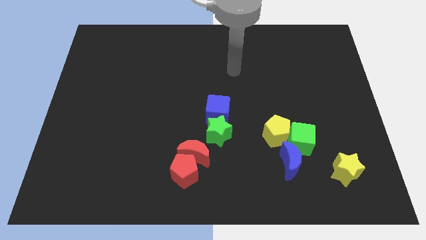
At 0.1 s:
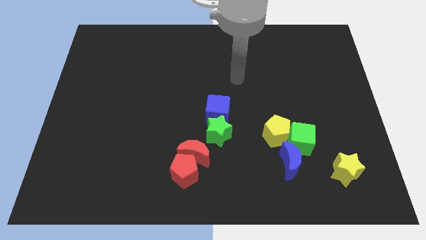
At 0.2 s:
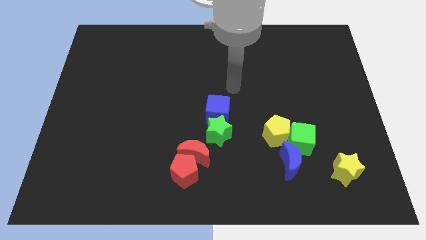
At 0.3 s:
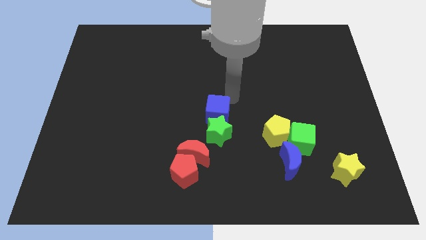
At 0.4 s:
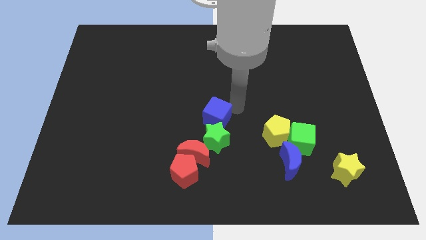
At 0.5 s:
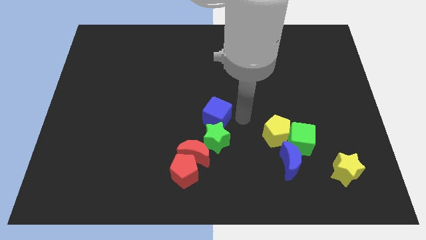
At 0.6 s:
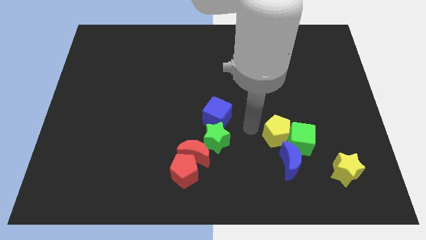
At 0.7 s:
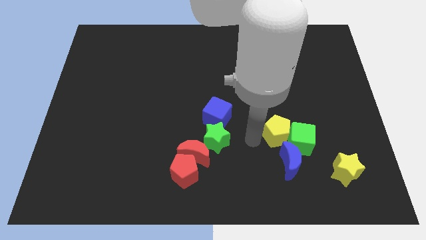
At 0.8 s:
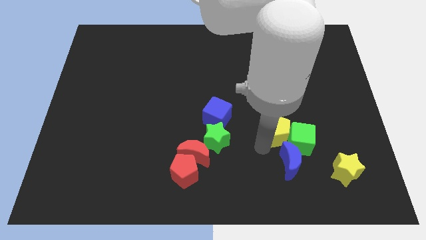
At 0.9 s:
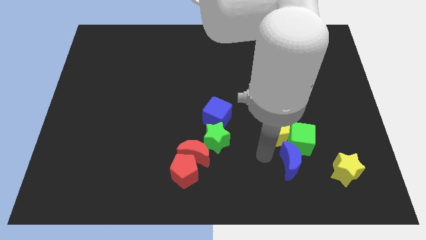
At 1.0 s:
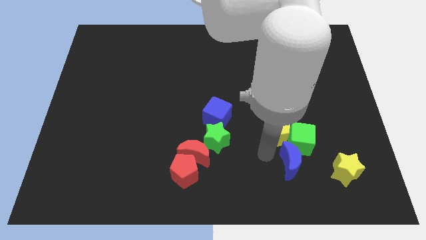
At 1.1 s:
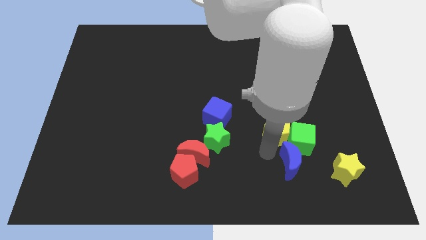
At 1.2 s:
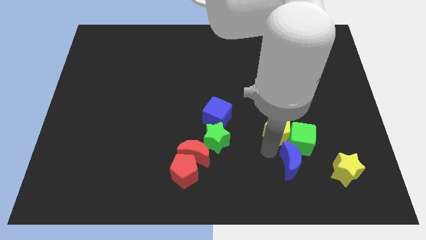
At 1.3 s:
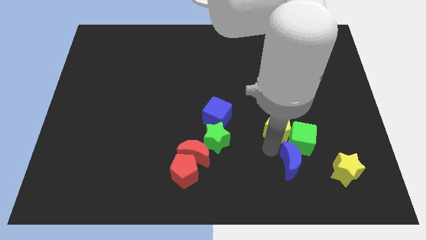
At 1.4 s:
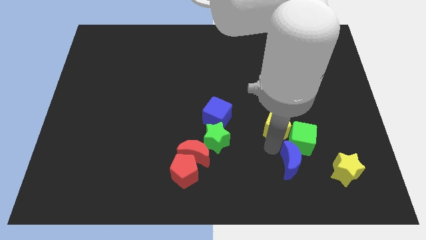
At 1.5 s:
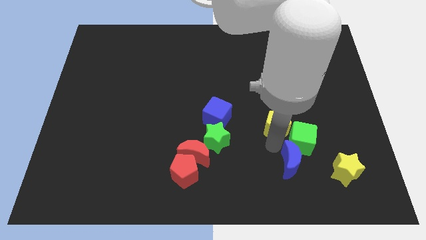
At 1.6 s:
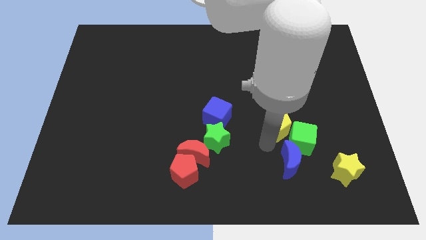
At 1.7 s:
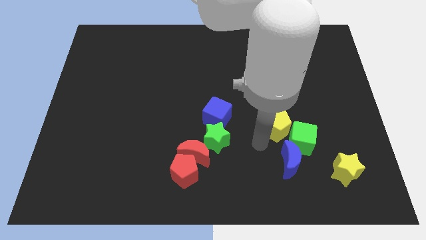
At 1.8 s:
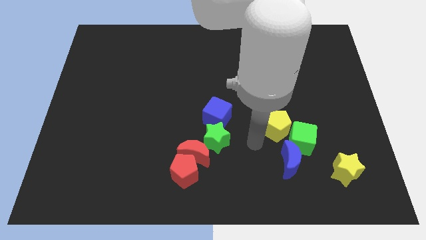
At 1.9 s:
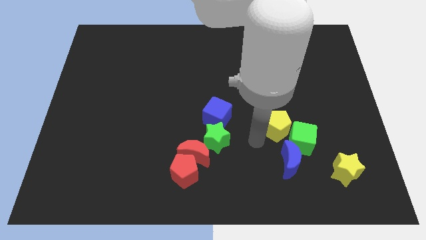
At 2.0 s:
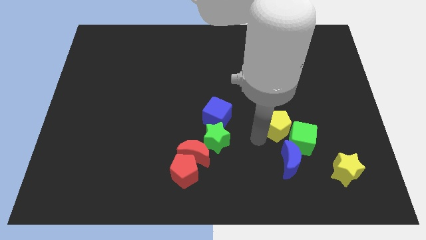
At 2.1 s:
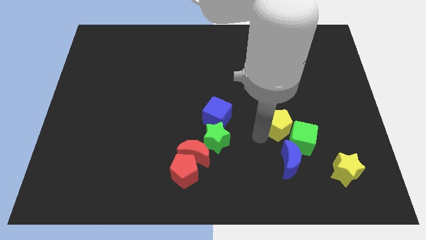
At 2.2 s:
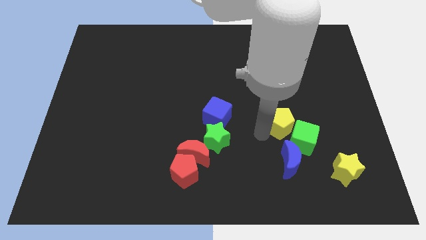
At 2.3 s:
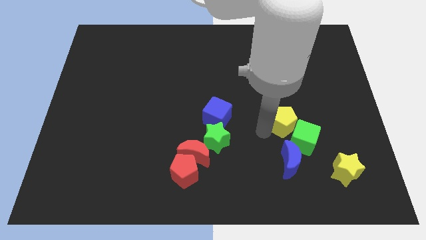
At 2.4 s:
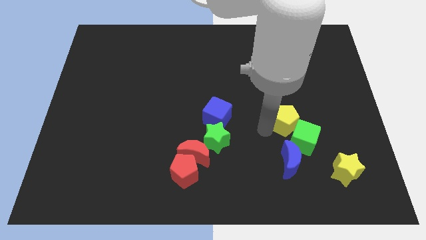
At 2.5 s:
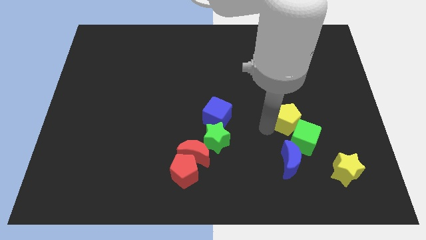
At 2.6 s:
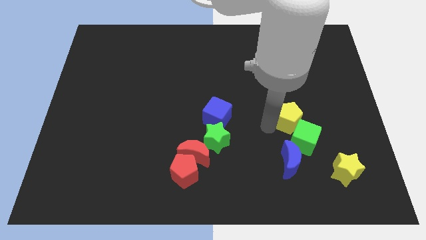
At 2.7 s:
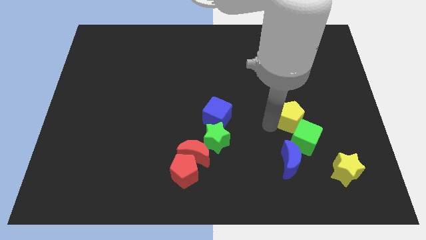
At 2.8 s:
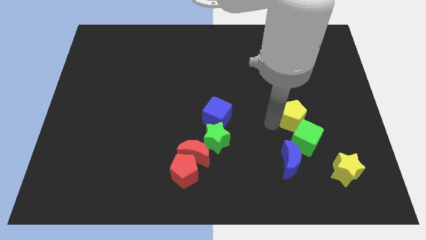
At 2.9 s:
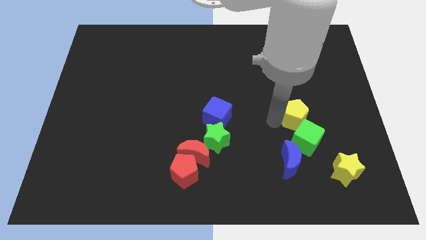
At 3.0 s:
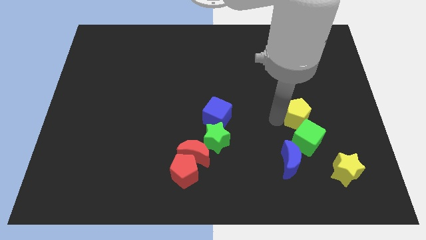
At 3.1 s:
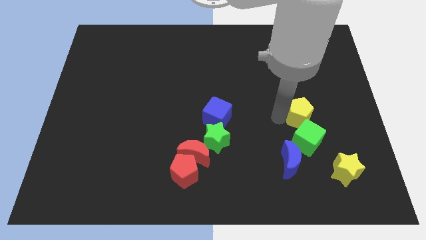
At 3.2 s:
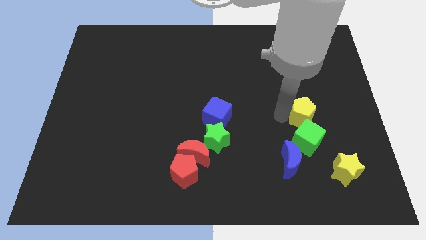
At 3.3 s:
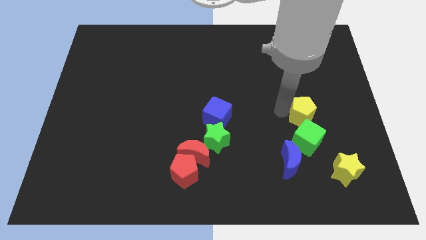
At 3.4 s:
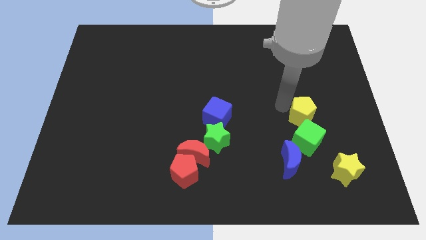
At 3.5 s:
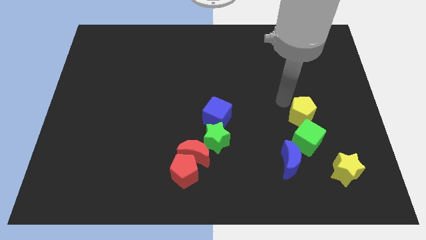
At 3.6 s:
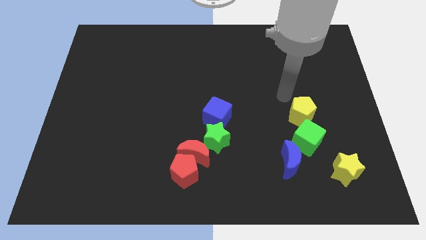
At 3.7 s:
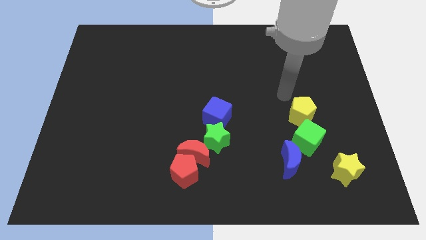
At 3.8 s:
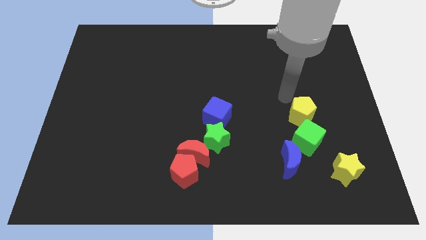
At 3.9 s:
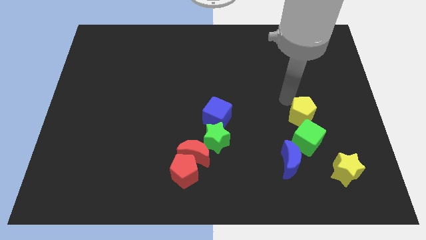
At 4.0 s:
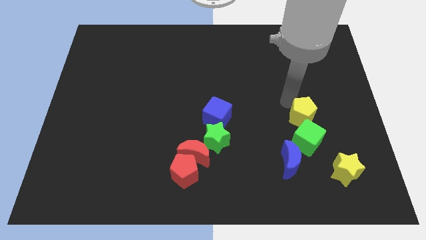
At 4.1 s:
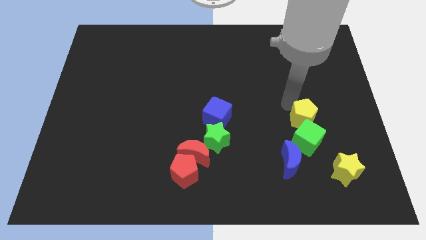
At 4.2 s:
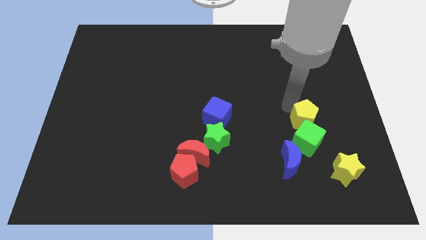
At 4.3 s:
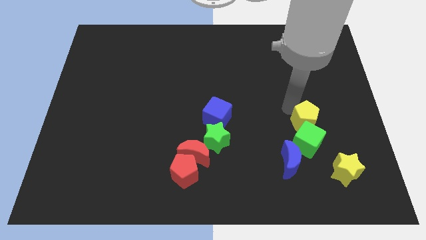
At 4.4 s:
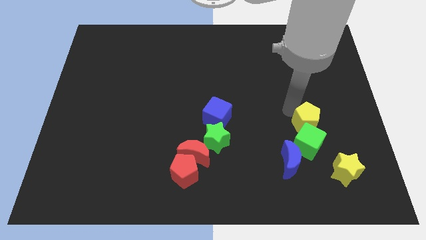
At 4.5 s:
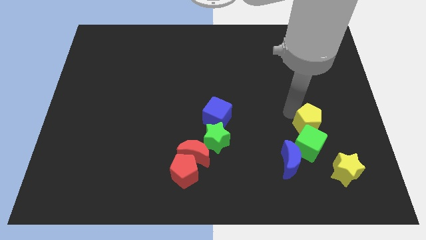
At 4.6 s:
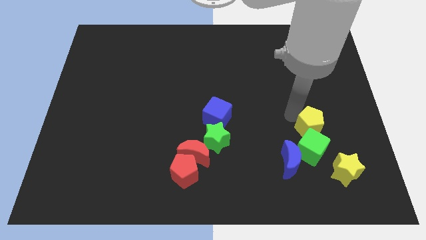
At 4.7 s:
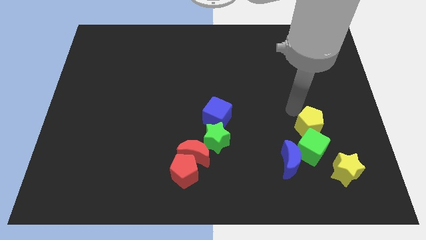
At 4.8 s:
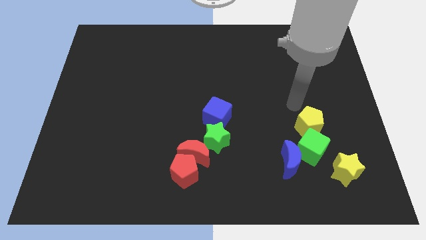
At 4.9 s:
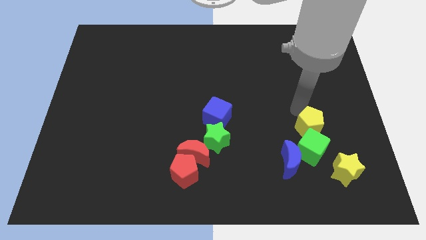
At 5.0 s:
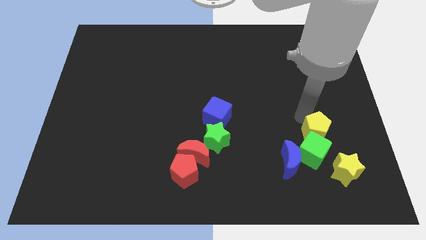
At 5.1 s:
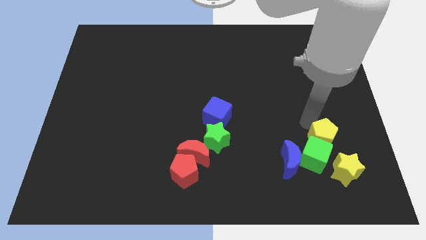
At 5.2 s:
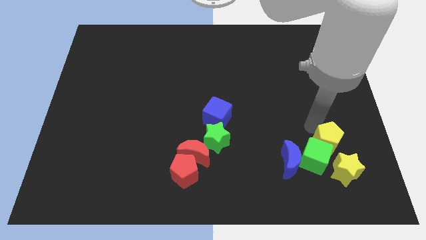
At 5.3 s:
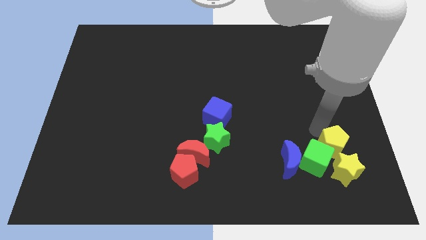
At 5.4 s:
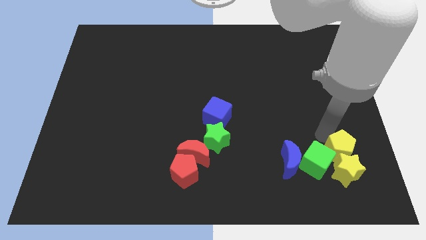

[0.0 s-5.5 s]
push the yellow pentagon close to the yellow star

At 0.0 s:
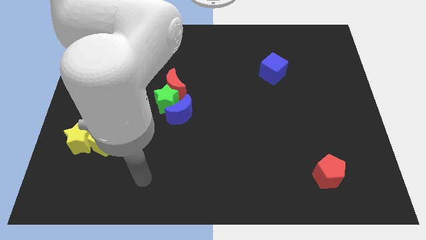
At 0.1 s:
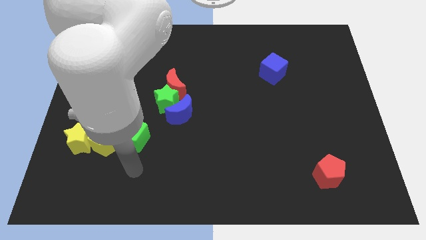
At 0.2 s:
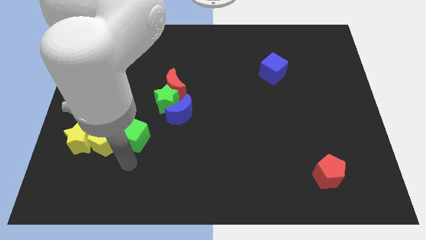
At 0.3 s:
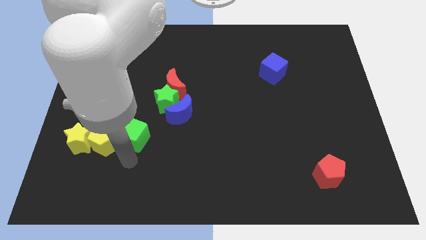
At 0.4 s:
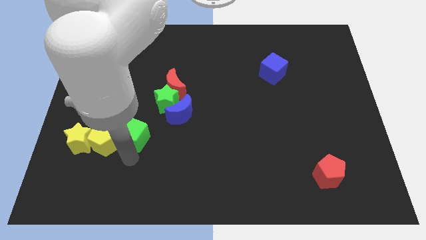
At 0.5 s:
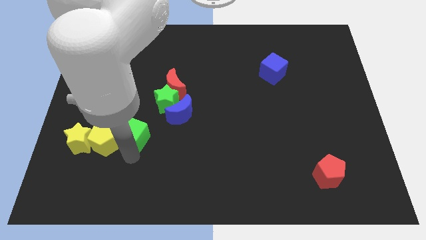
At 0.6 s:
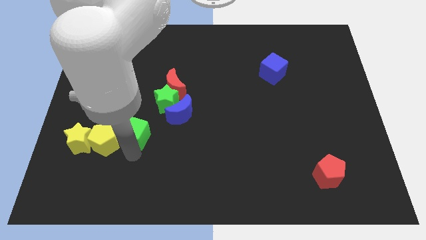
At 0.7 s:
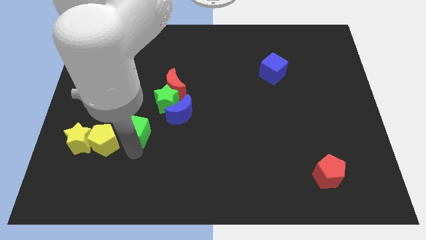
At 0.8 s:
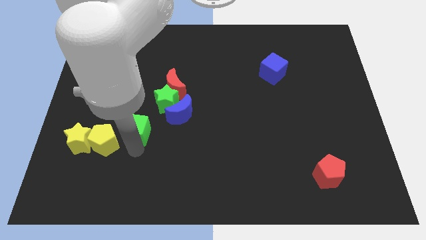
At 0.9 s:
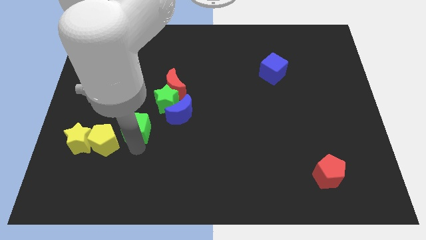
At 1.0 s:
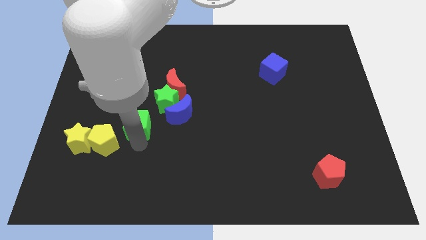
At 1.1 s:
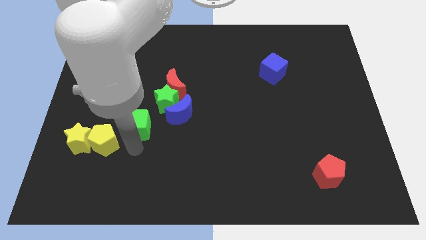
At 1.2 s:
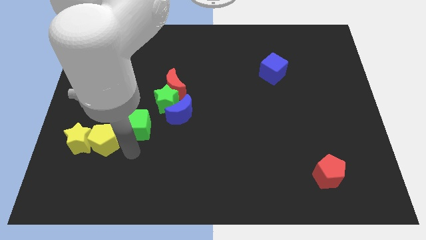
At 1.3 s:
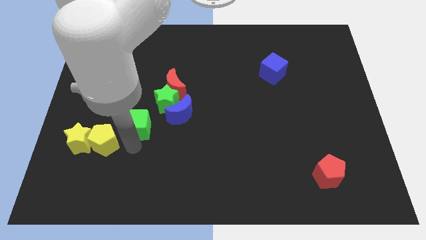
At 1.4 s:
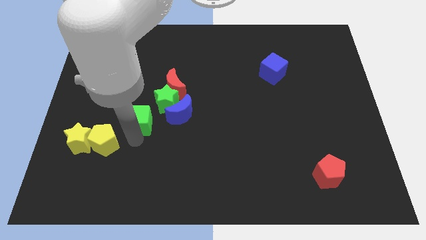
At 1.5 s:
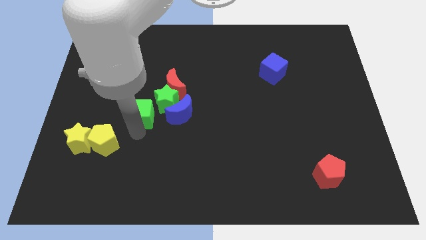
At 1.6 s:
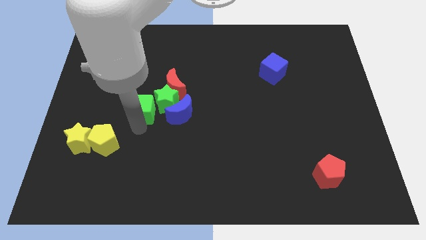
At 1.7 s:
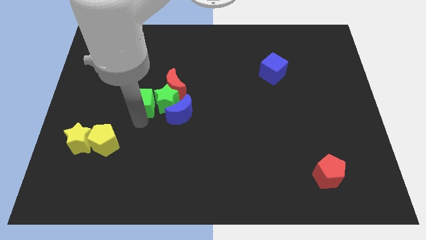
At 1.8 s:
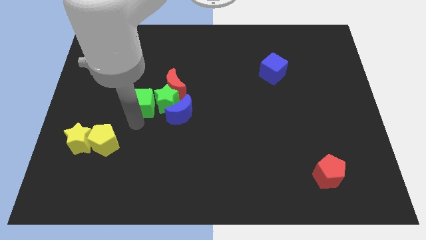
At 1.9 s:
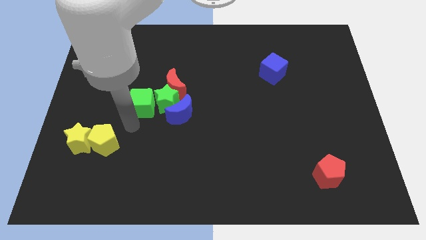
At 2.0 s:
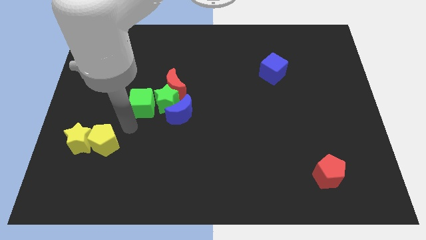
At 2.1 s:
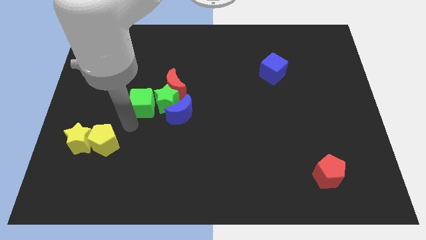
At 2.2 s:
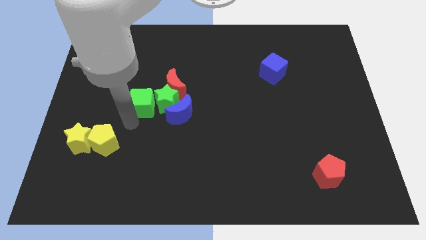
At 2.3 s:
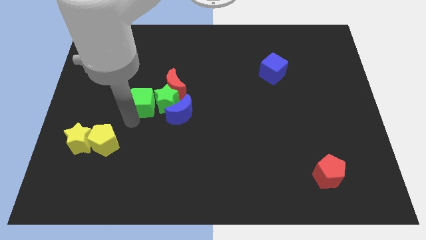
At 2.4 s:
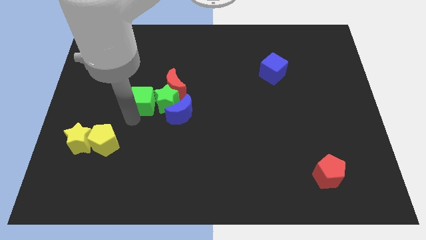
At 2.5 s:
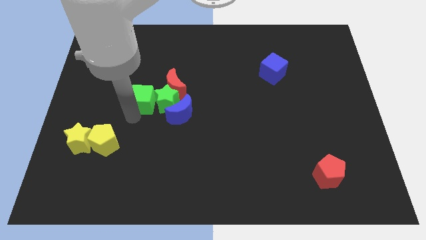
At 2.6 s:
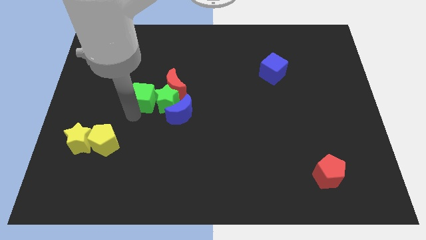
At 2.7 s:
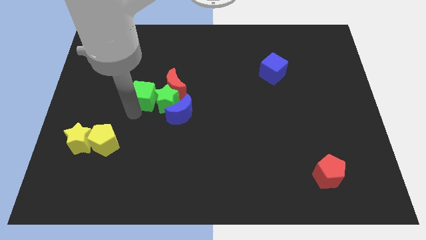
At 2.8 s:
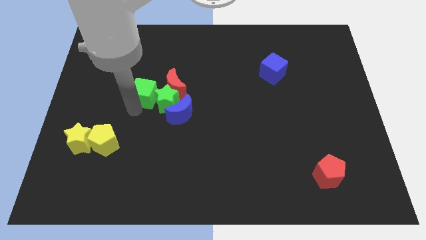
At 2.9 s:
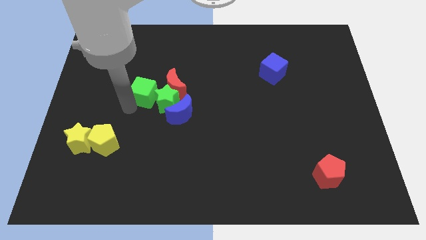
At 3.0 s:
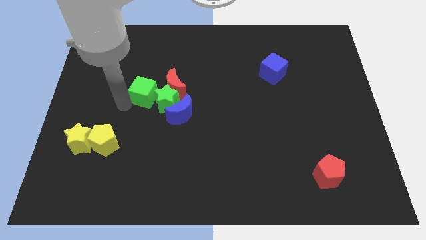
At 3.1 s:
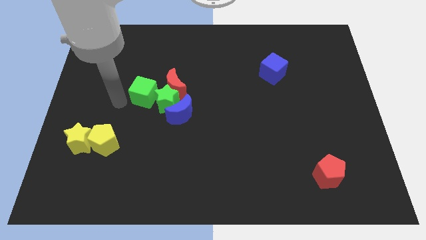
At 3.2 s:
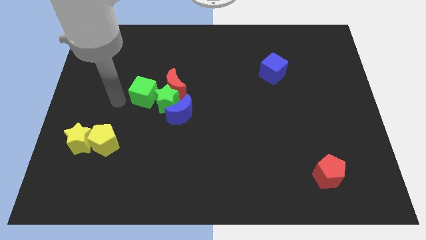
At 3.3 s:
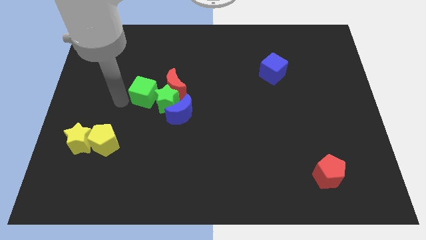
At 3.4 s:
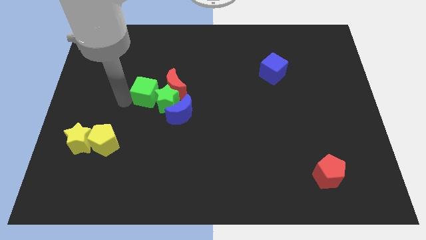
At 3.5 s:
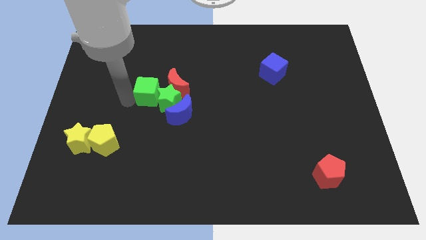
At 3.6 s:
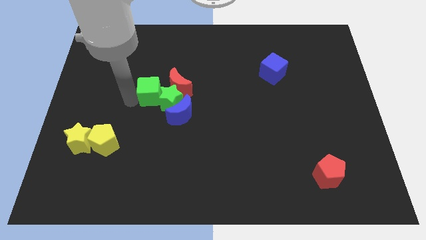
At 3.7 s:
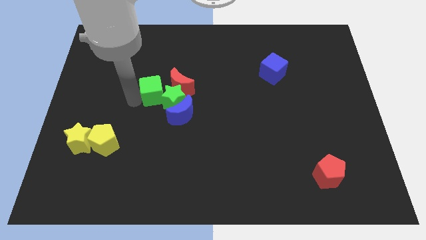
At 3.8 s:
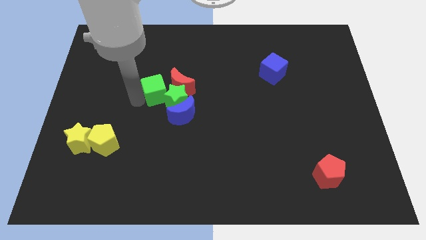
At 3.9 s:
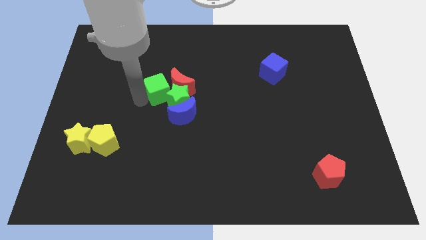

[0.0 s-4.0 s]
put the green cube towards the red moon
